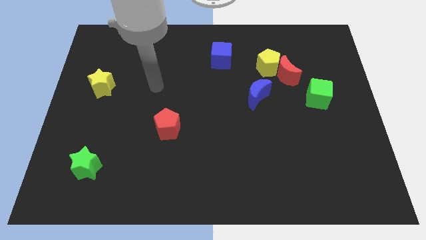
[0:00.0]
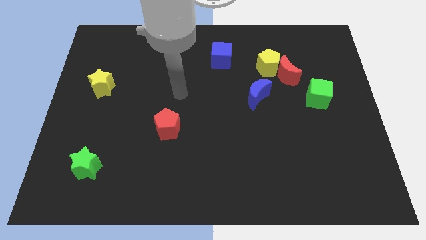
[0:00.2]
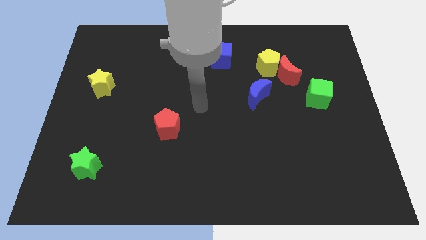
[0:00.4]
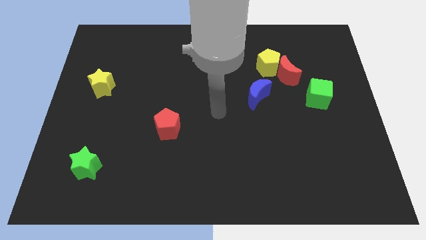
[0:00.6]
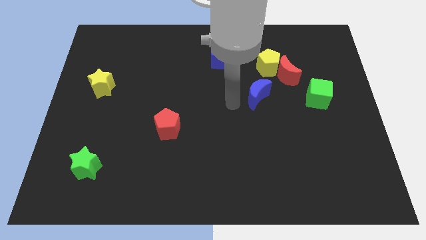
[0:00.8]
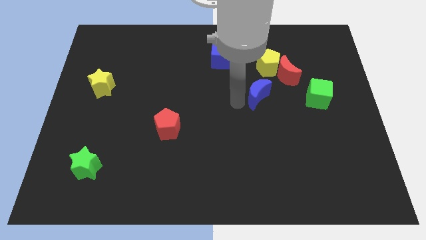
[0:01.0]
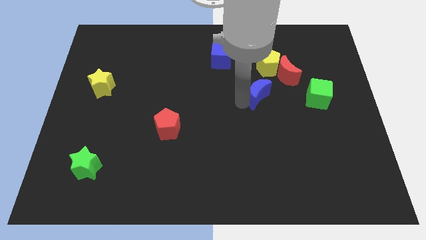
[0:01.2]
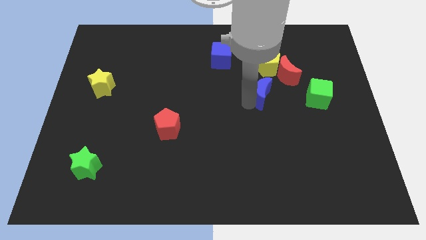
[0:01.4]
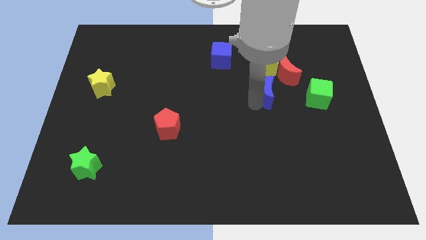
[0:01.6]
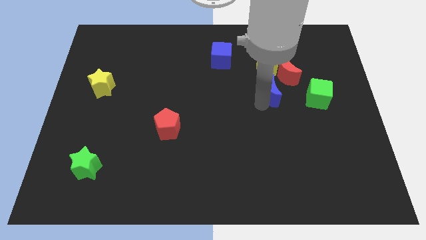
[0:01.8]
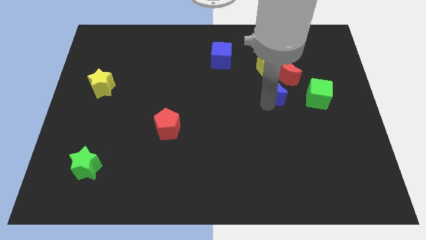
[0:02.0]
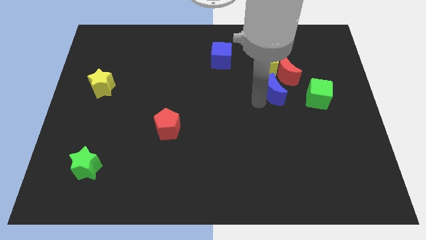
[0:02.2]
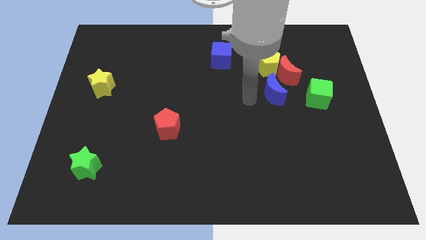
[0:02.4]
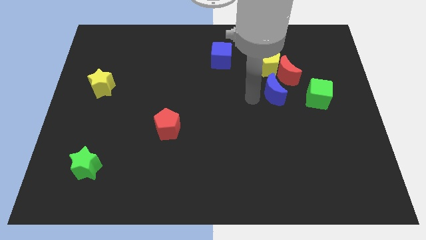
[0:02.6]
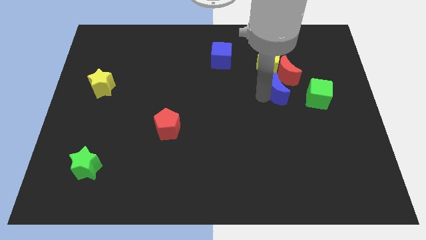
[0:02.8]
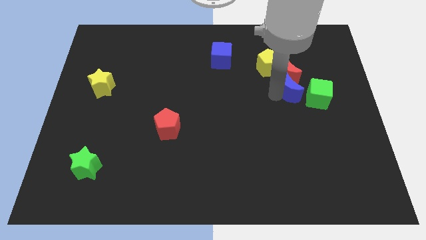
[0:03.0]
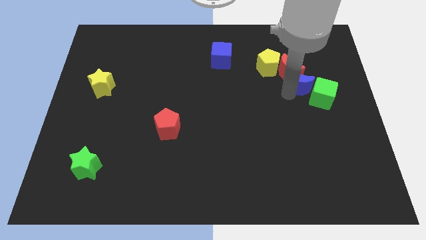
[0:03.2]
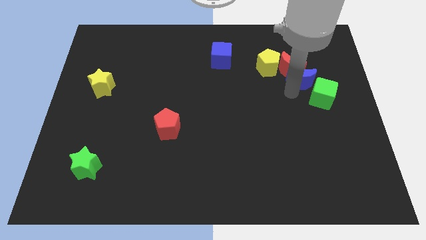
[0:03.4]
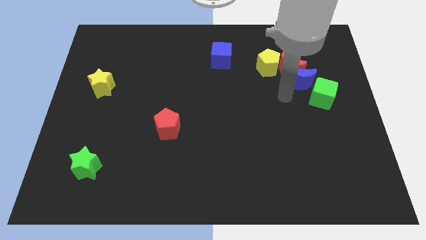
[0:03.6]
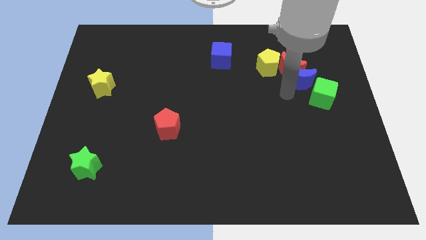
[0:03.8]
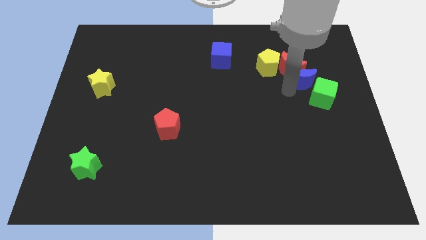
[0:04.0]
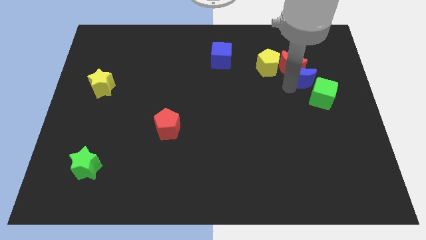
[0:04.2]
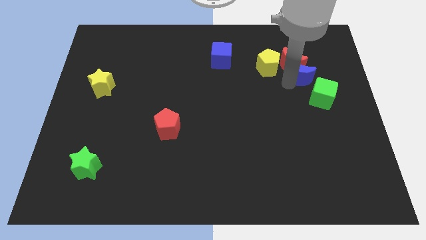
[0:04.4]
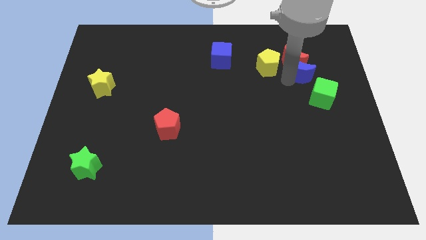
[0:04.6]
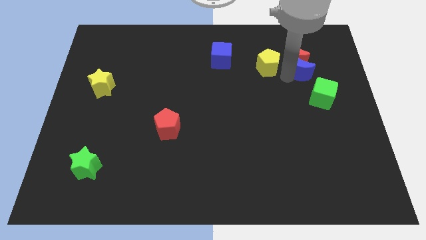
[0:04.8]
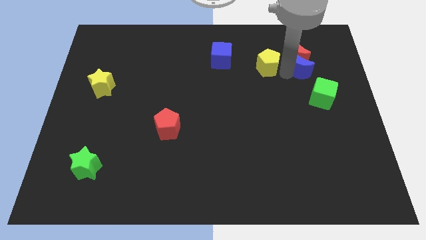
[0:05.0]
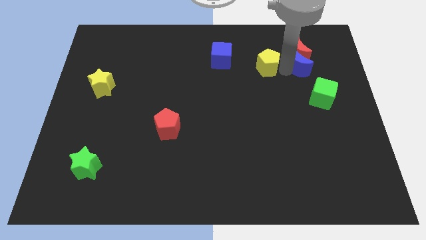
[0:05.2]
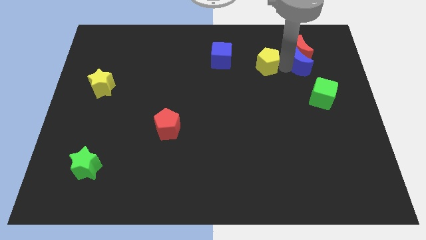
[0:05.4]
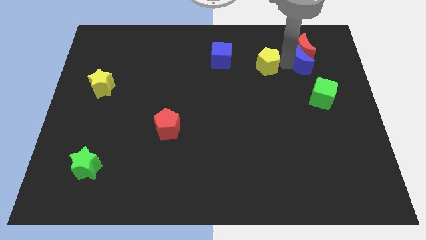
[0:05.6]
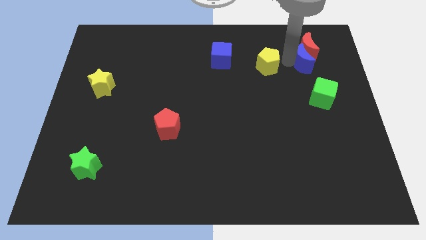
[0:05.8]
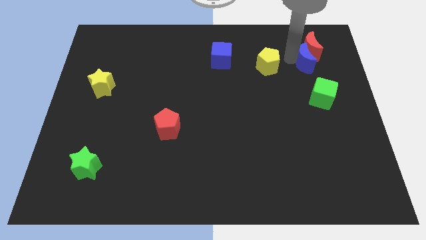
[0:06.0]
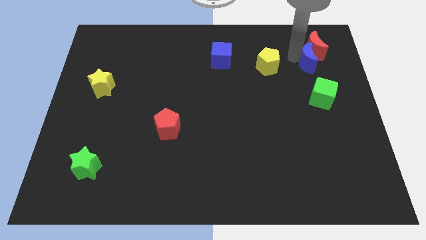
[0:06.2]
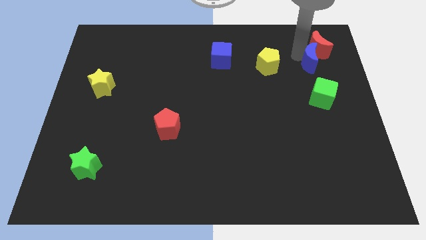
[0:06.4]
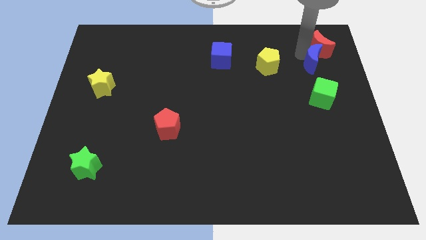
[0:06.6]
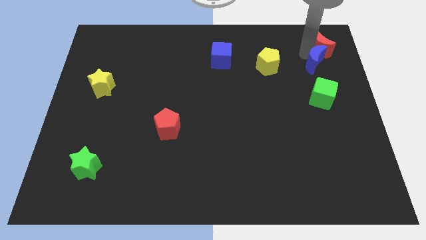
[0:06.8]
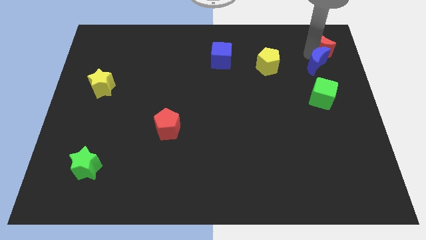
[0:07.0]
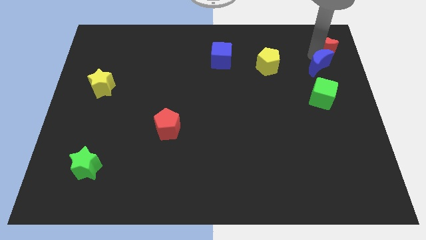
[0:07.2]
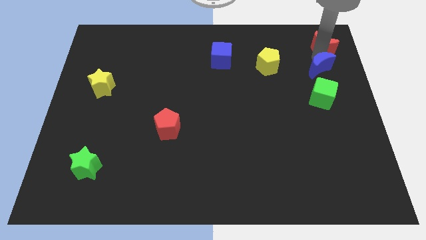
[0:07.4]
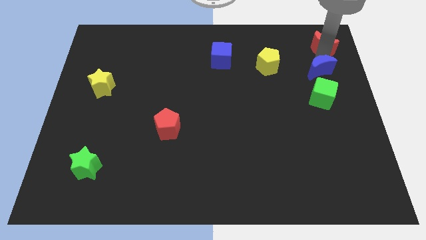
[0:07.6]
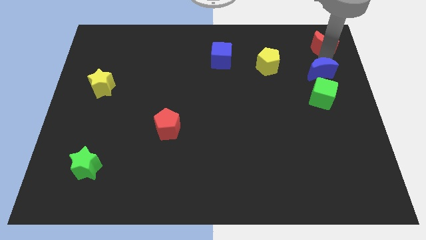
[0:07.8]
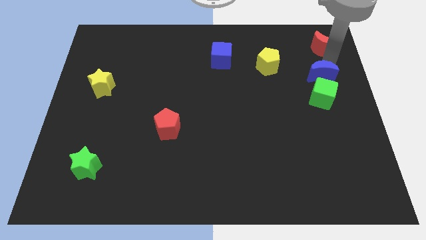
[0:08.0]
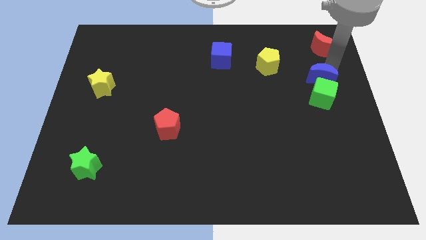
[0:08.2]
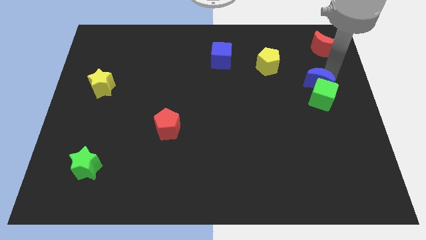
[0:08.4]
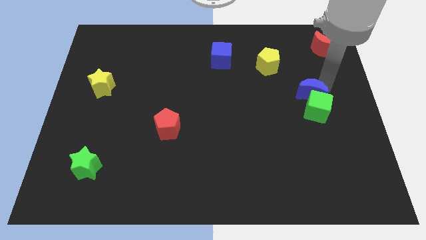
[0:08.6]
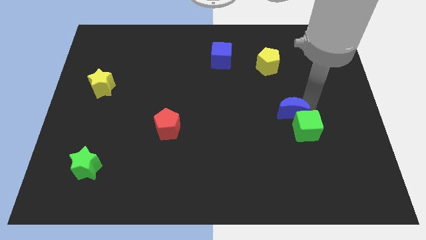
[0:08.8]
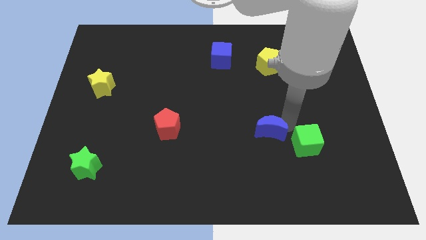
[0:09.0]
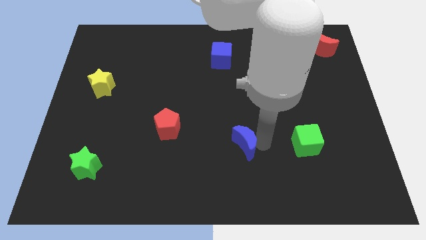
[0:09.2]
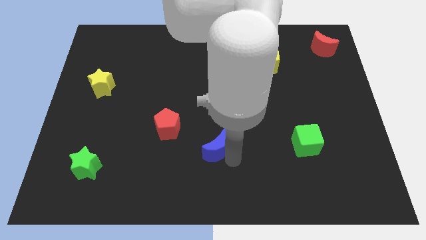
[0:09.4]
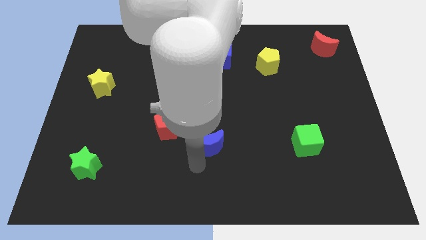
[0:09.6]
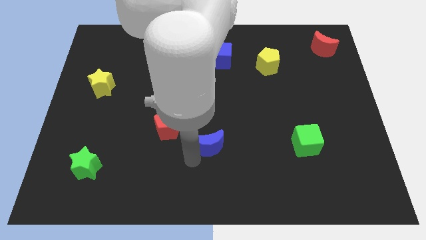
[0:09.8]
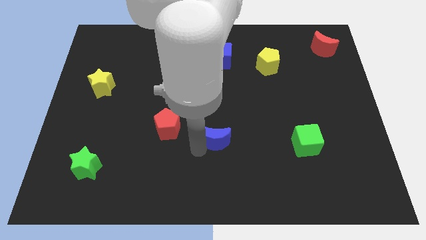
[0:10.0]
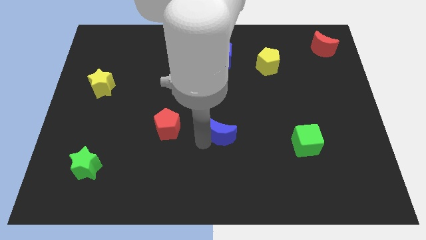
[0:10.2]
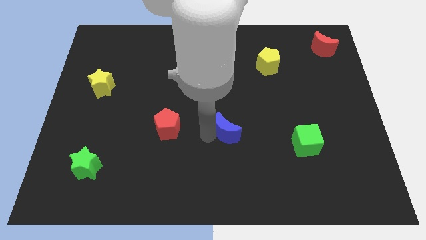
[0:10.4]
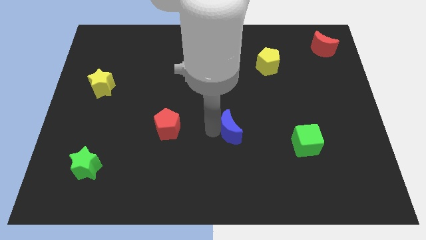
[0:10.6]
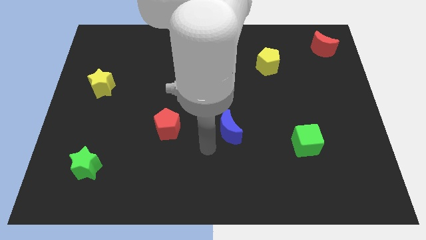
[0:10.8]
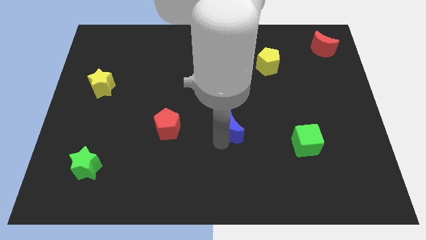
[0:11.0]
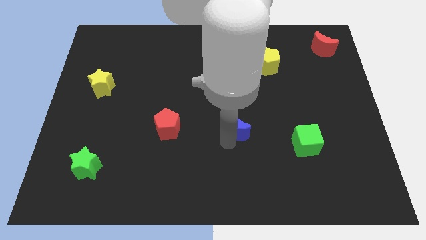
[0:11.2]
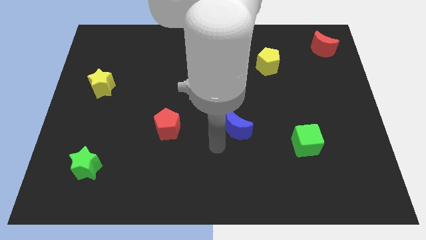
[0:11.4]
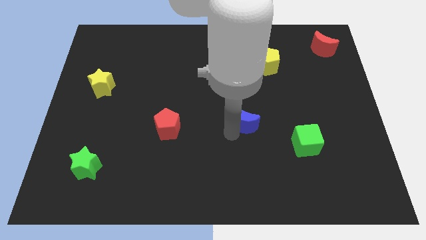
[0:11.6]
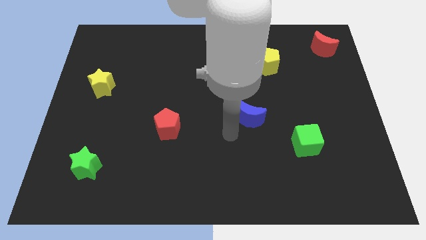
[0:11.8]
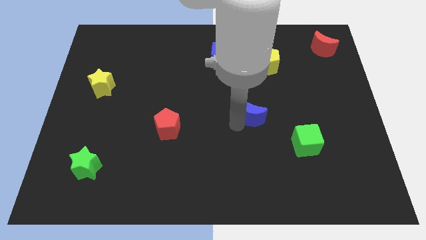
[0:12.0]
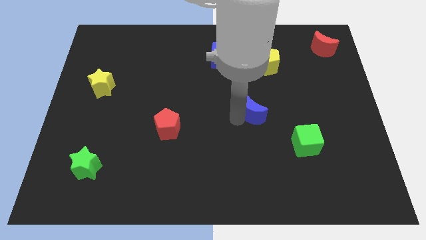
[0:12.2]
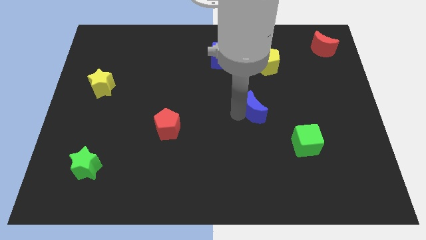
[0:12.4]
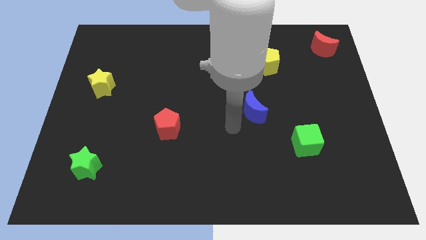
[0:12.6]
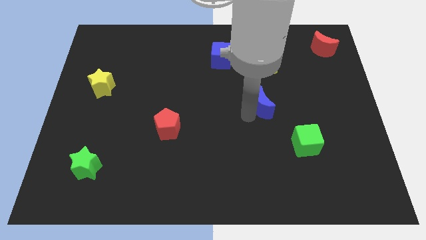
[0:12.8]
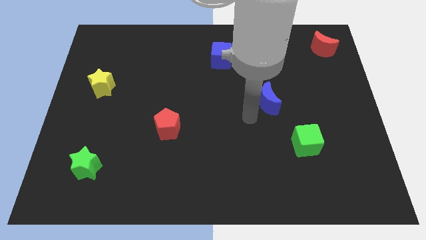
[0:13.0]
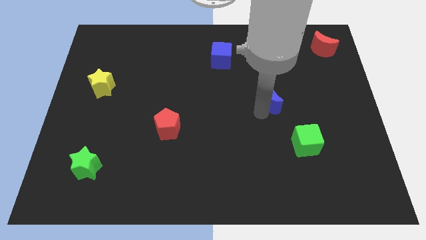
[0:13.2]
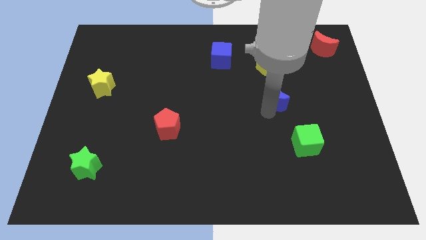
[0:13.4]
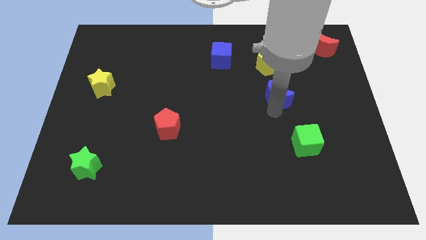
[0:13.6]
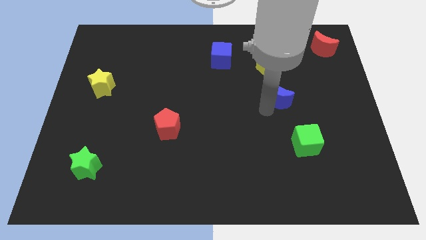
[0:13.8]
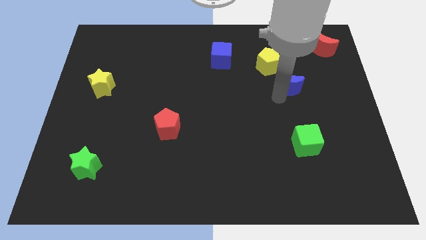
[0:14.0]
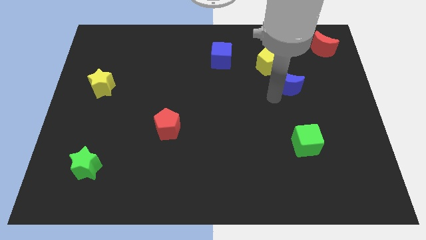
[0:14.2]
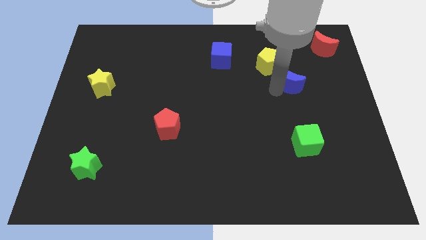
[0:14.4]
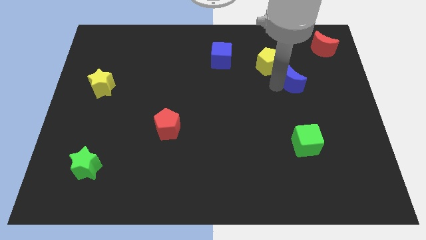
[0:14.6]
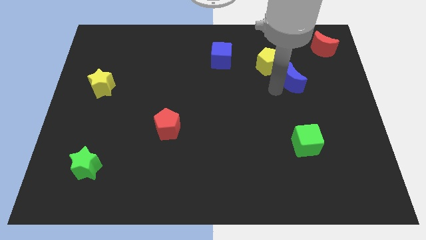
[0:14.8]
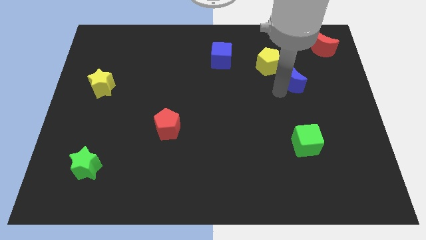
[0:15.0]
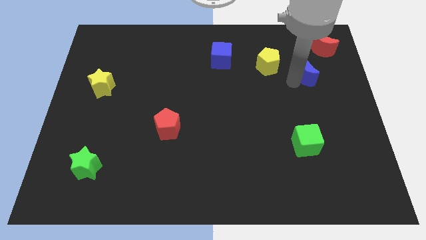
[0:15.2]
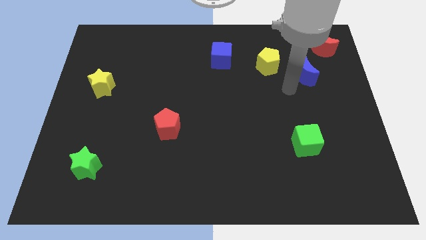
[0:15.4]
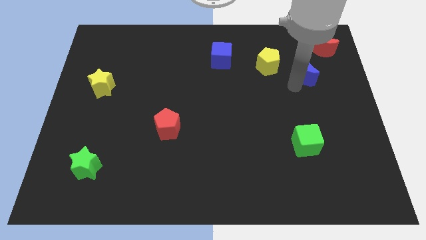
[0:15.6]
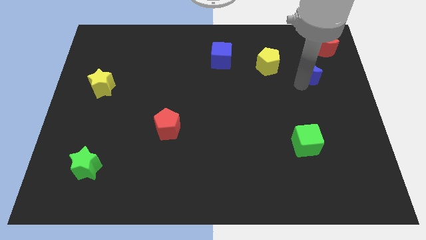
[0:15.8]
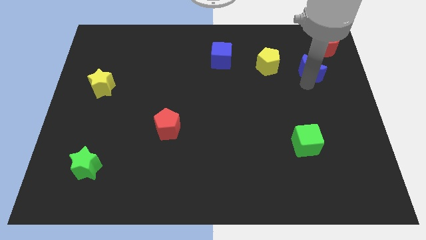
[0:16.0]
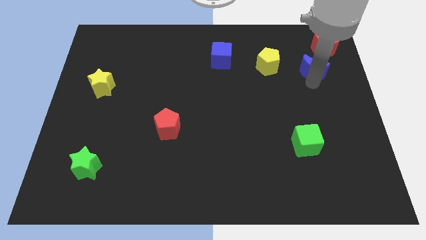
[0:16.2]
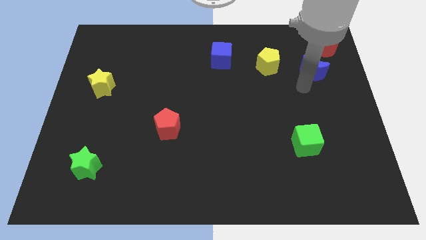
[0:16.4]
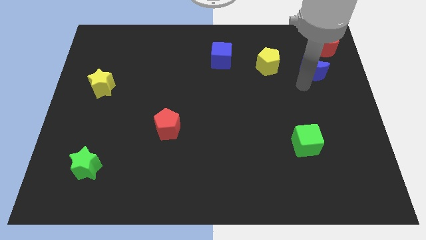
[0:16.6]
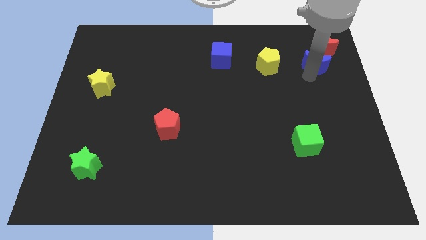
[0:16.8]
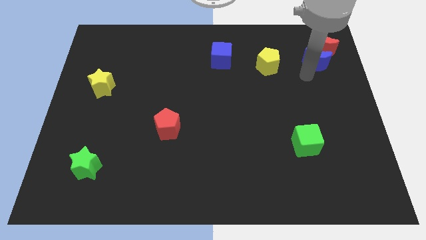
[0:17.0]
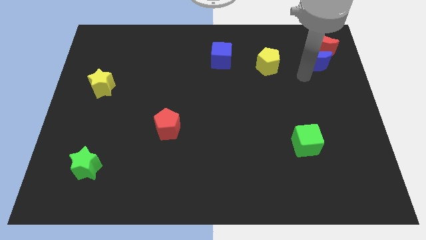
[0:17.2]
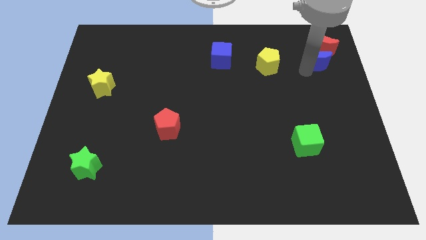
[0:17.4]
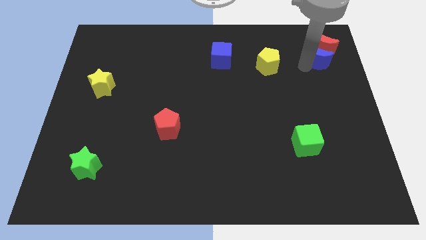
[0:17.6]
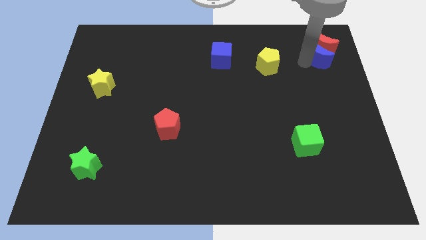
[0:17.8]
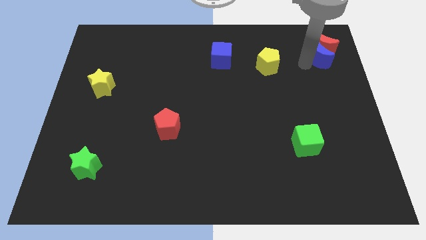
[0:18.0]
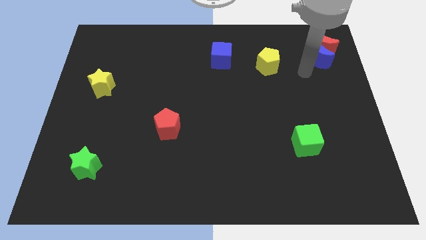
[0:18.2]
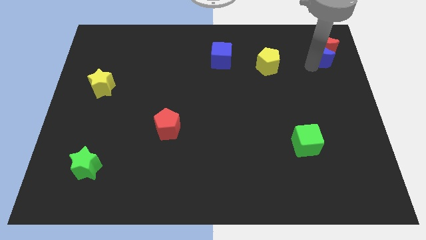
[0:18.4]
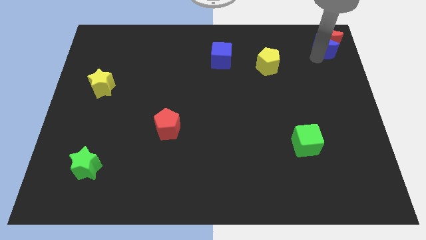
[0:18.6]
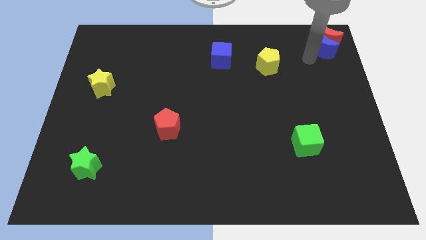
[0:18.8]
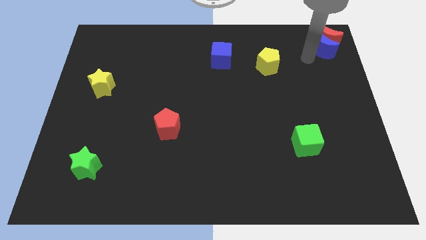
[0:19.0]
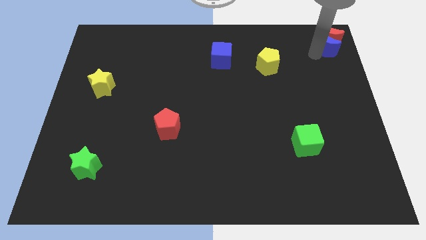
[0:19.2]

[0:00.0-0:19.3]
put the blue moon to the top right
